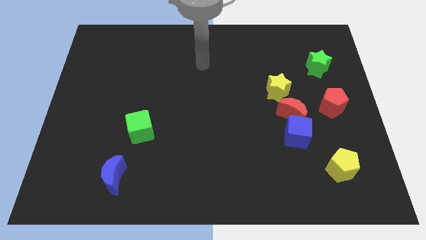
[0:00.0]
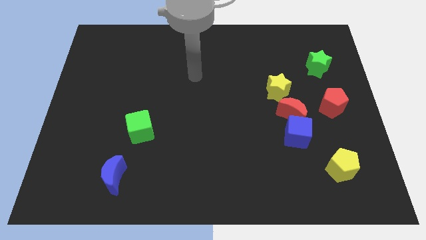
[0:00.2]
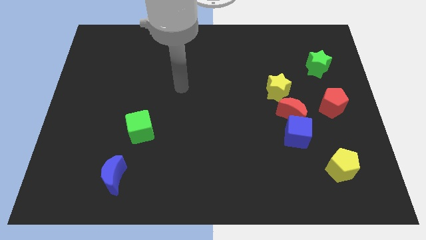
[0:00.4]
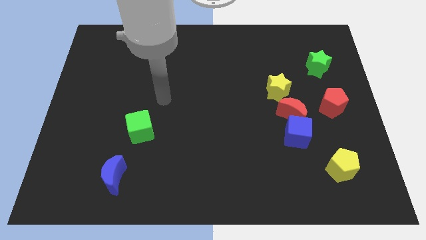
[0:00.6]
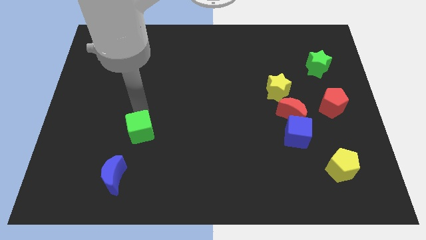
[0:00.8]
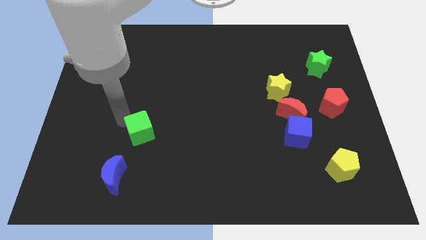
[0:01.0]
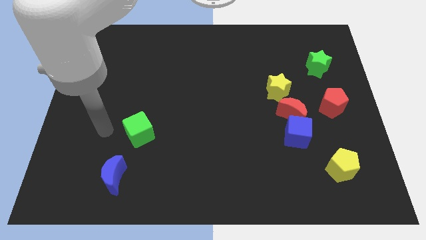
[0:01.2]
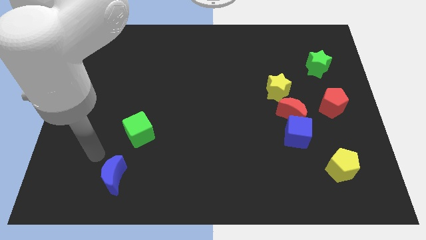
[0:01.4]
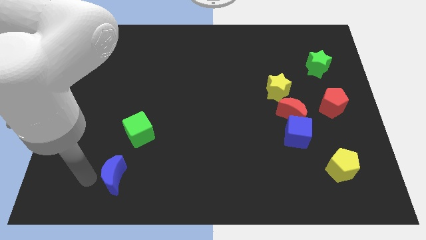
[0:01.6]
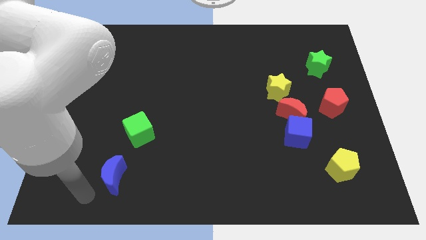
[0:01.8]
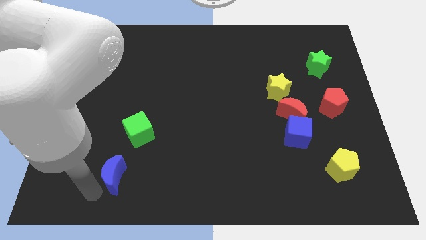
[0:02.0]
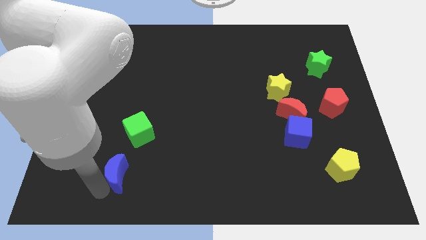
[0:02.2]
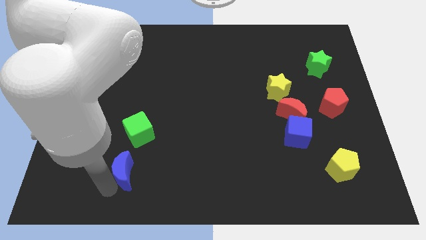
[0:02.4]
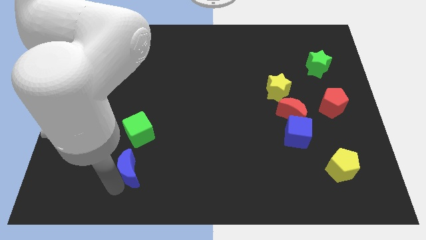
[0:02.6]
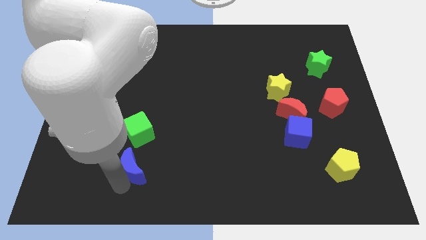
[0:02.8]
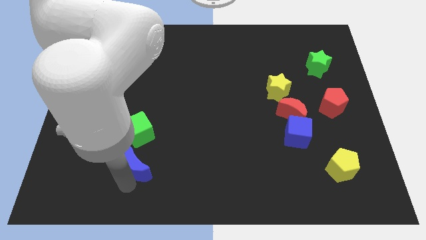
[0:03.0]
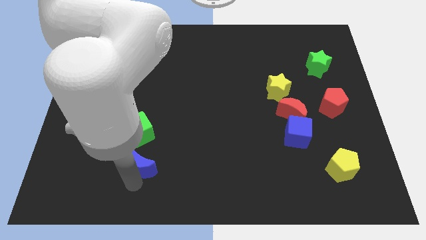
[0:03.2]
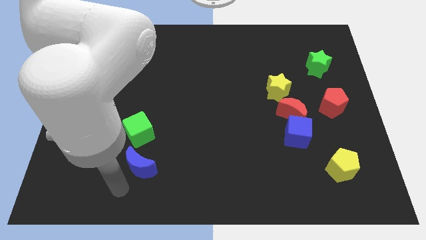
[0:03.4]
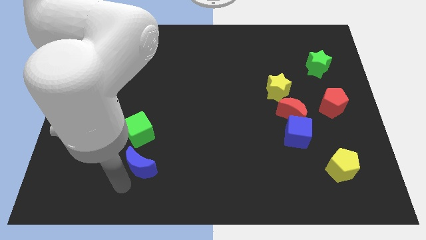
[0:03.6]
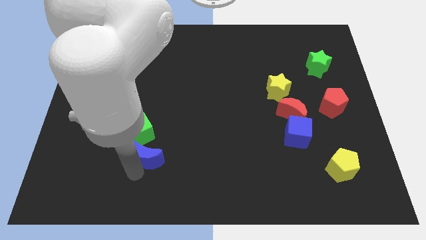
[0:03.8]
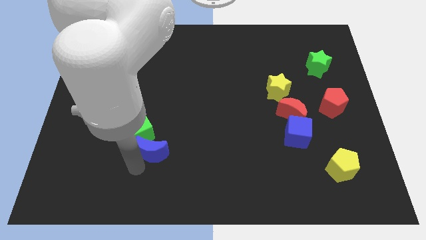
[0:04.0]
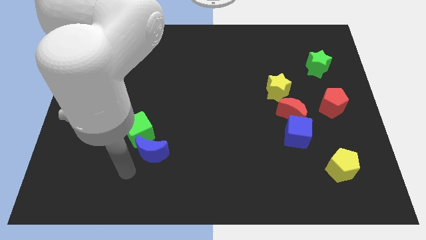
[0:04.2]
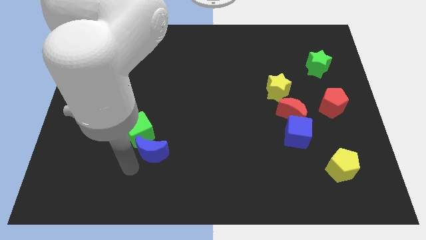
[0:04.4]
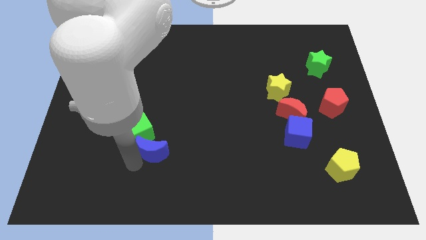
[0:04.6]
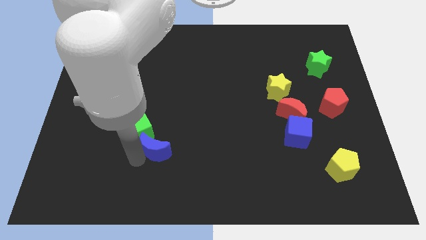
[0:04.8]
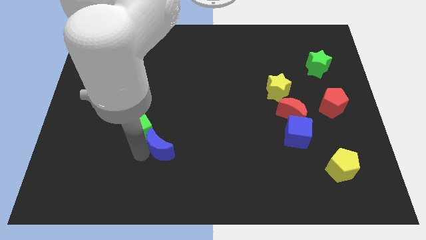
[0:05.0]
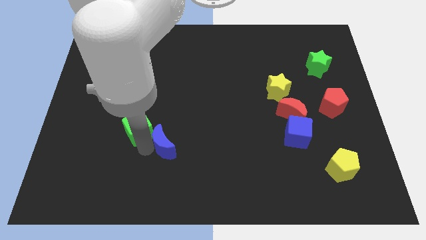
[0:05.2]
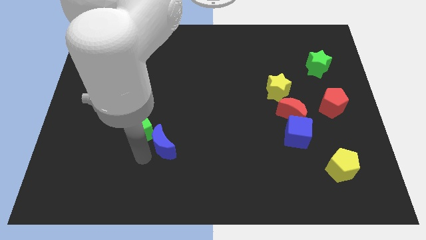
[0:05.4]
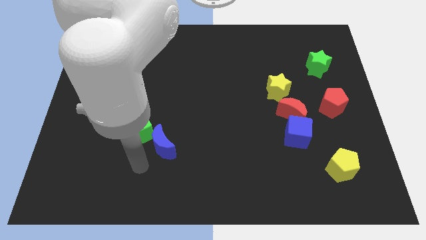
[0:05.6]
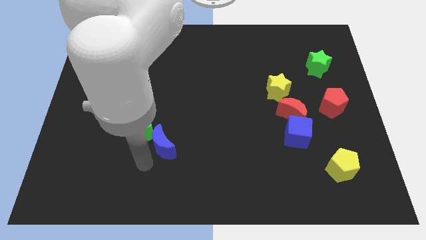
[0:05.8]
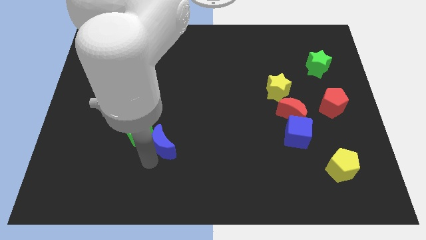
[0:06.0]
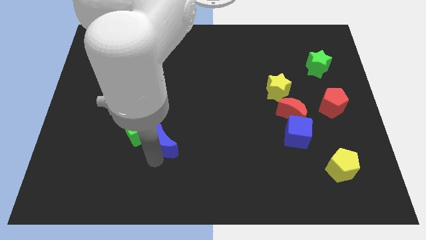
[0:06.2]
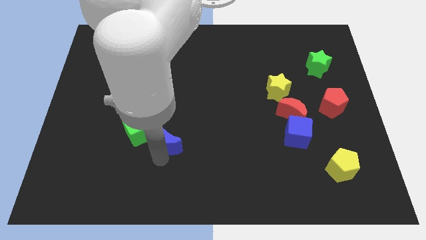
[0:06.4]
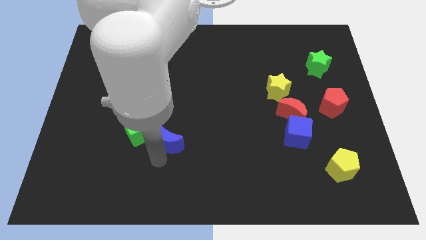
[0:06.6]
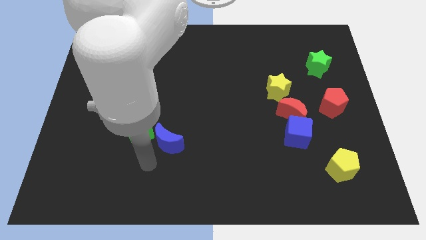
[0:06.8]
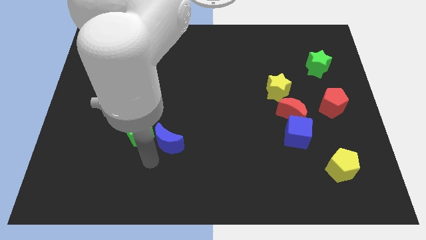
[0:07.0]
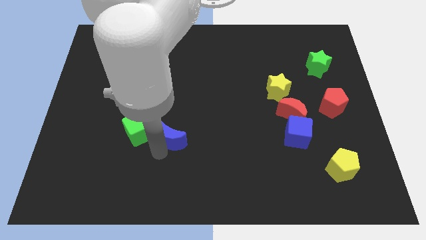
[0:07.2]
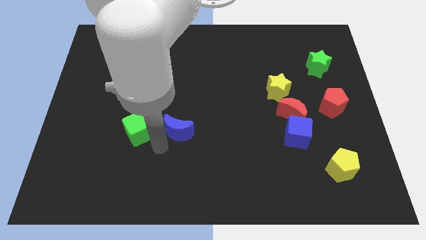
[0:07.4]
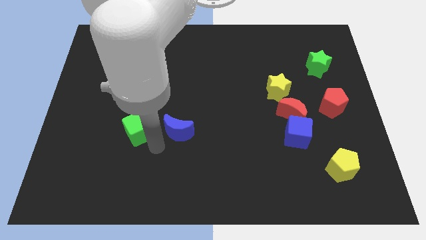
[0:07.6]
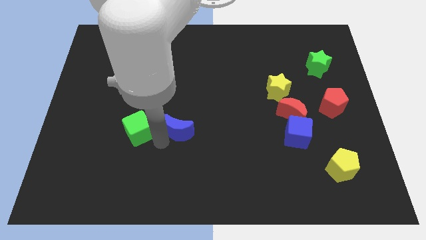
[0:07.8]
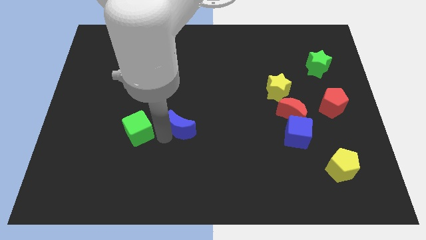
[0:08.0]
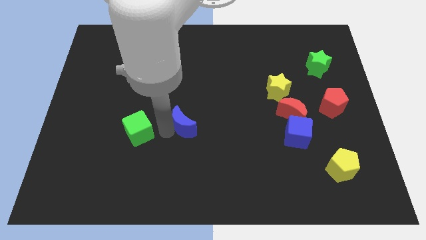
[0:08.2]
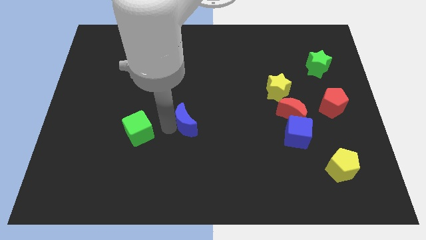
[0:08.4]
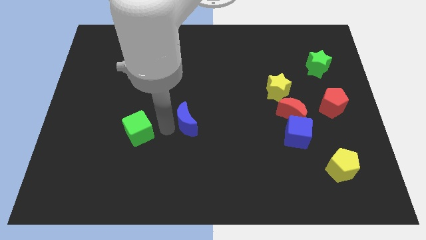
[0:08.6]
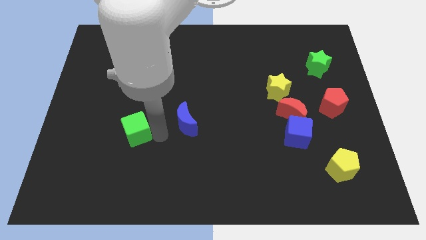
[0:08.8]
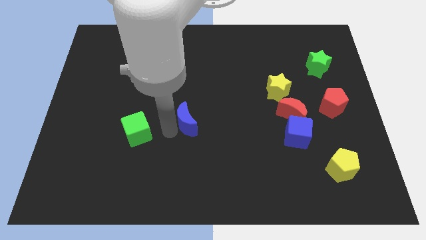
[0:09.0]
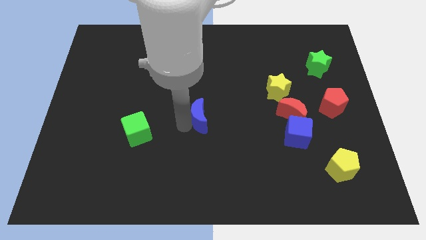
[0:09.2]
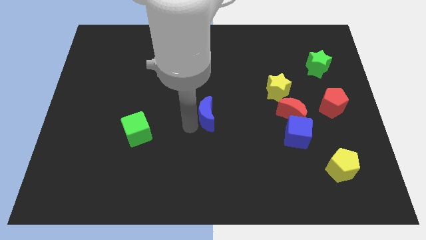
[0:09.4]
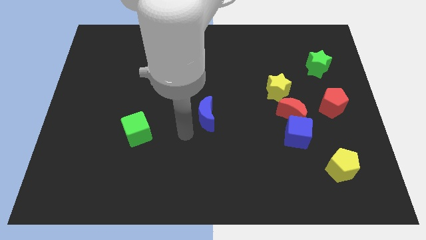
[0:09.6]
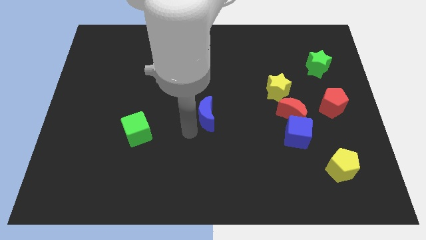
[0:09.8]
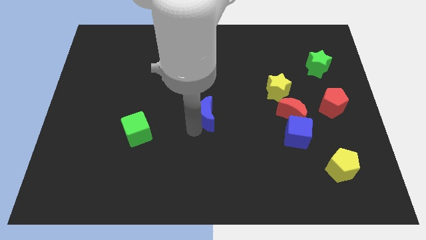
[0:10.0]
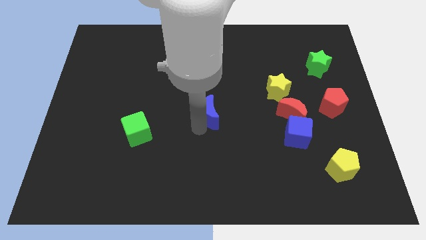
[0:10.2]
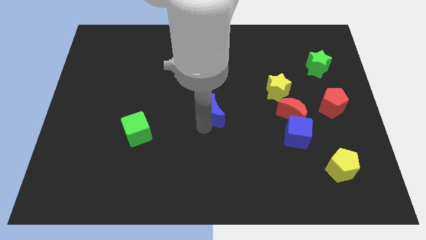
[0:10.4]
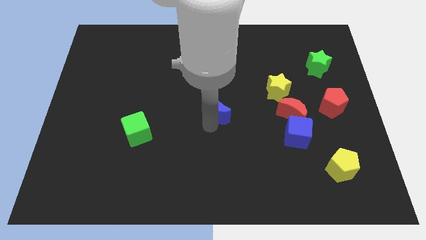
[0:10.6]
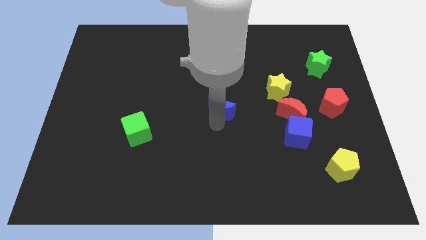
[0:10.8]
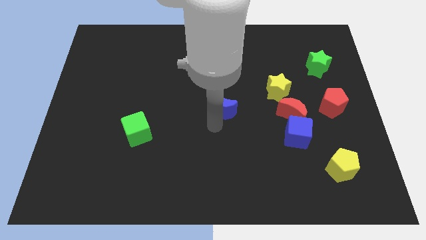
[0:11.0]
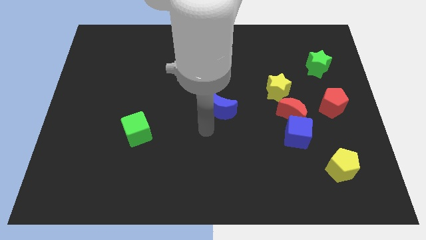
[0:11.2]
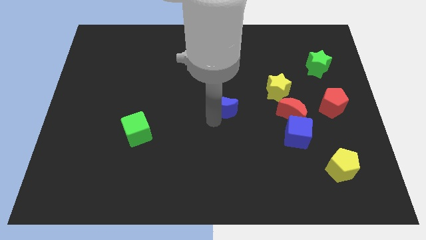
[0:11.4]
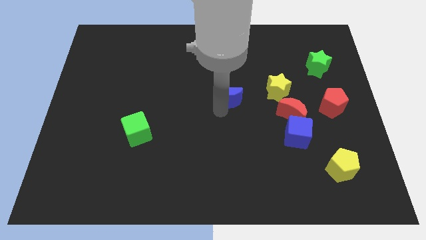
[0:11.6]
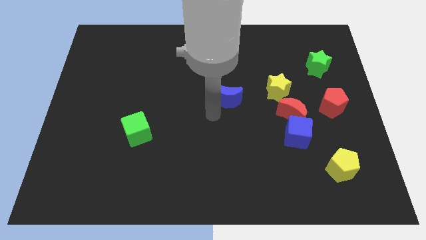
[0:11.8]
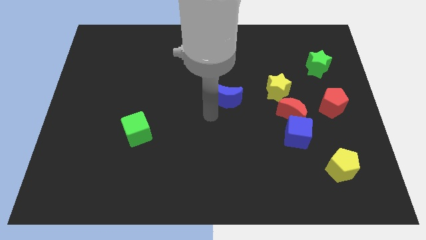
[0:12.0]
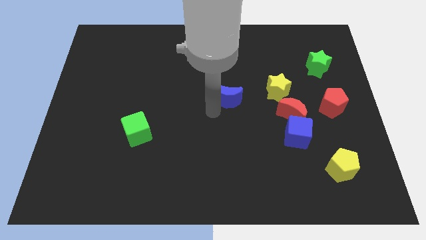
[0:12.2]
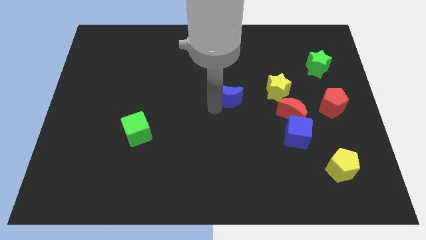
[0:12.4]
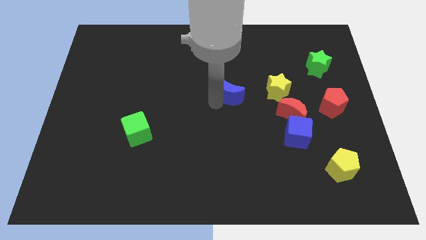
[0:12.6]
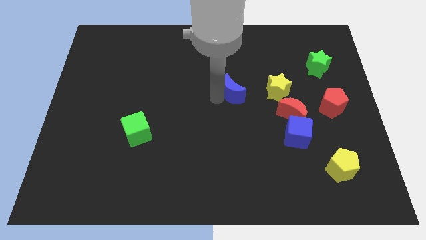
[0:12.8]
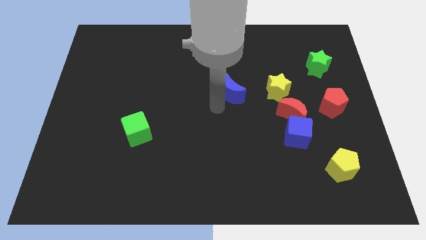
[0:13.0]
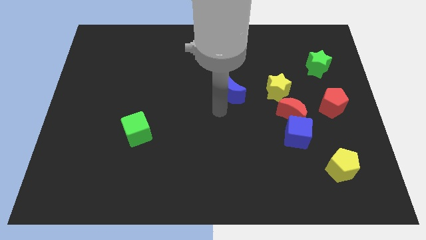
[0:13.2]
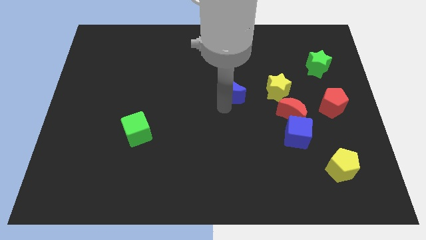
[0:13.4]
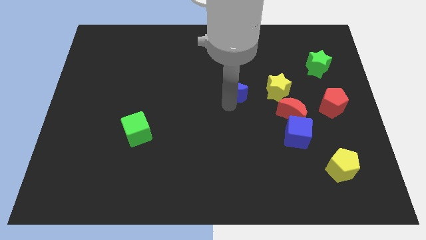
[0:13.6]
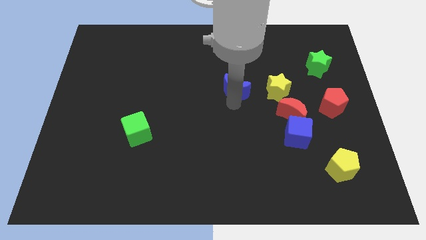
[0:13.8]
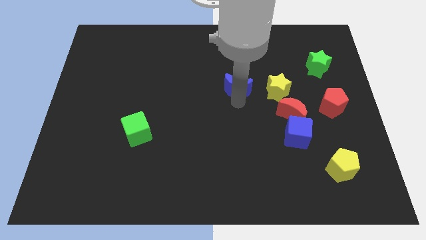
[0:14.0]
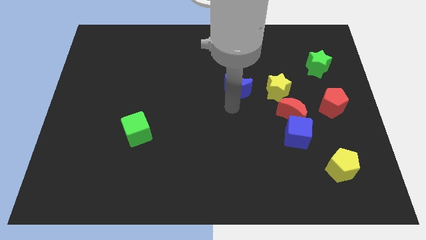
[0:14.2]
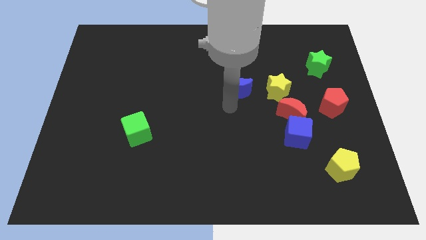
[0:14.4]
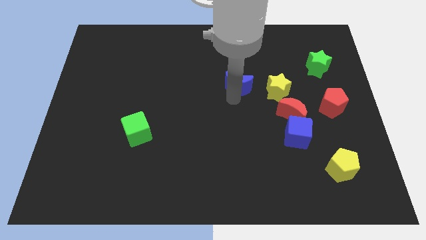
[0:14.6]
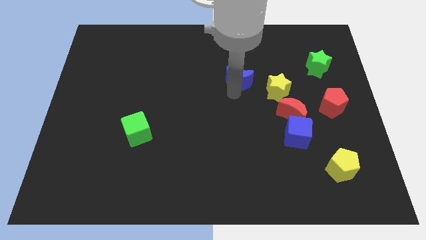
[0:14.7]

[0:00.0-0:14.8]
put the blue moon to the top left side of the yellow star

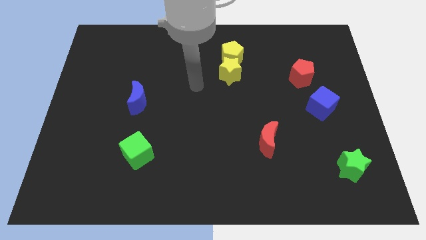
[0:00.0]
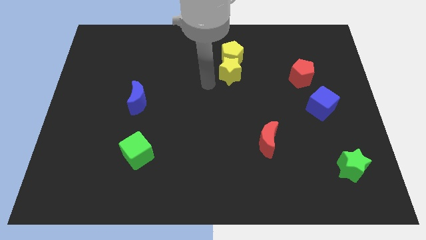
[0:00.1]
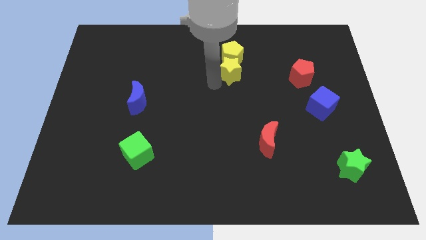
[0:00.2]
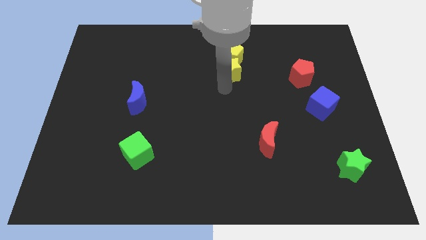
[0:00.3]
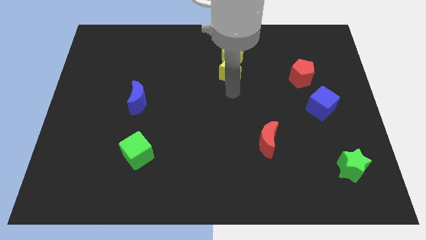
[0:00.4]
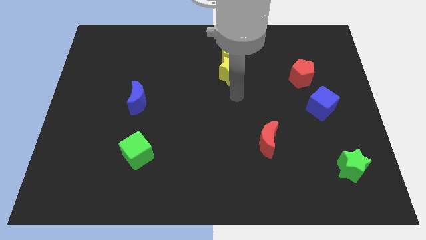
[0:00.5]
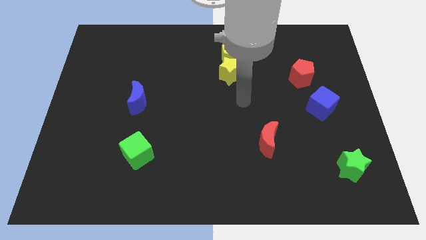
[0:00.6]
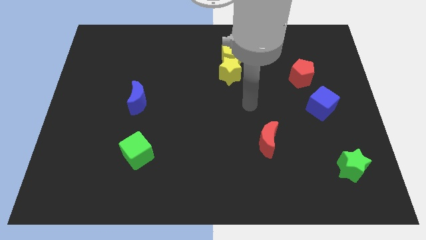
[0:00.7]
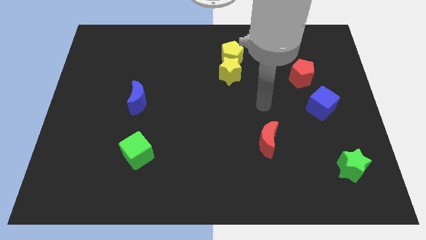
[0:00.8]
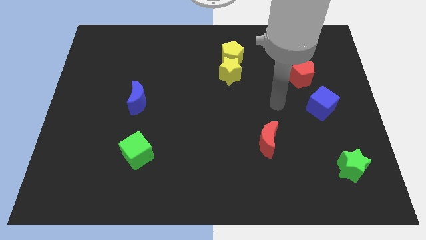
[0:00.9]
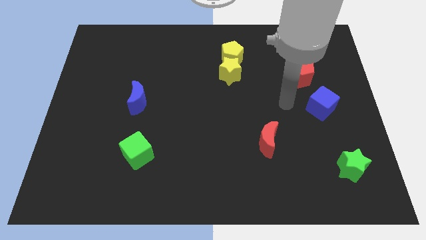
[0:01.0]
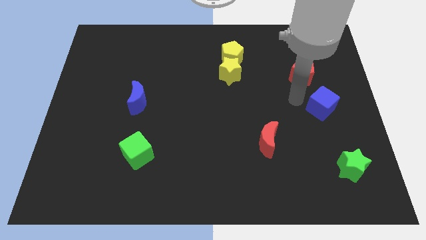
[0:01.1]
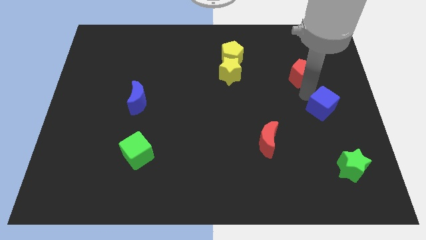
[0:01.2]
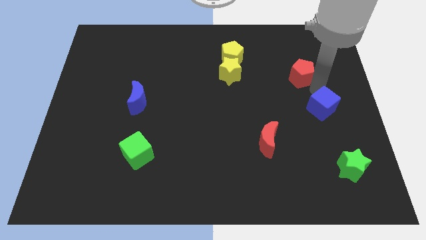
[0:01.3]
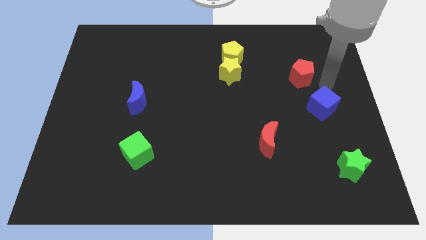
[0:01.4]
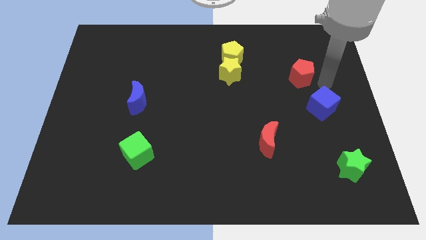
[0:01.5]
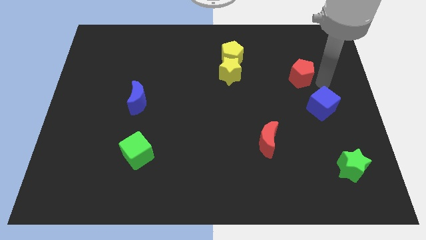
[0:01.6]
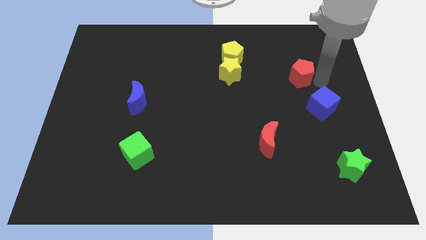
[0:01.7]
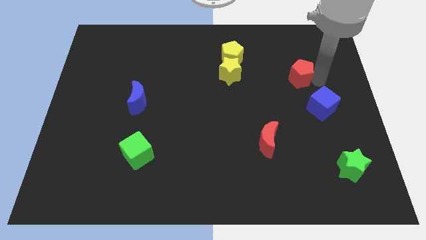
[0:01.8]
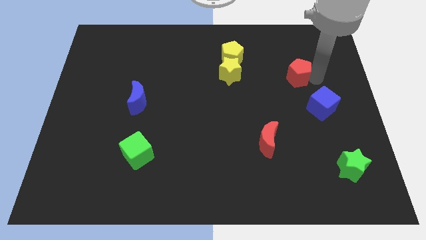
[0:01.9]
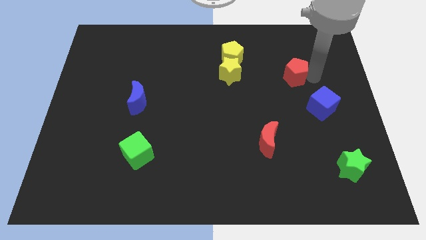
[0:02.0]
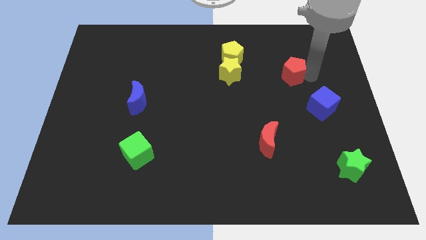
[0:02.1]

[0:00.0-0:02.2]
move the red pentagon just right of the yellow star
